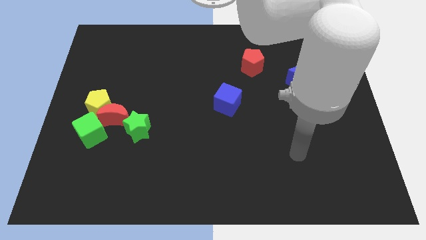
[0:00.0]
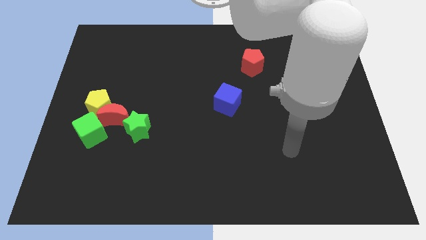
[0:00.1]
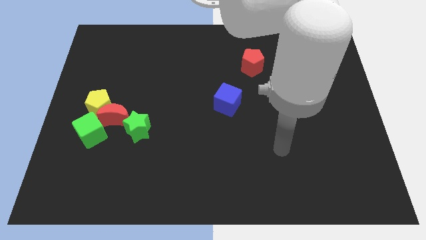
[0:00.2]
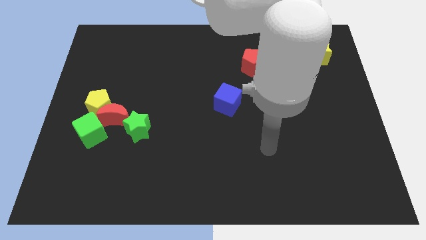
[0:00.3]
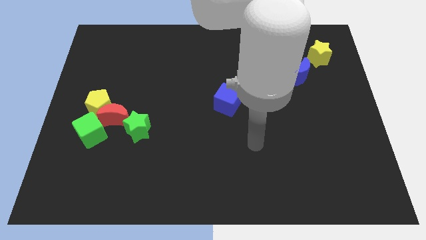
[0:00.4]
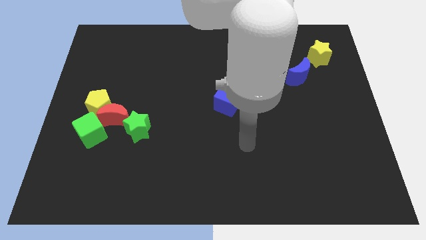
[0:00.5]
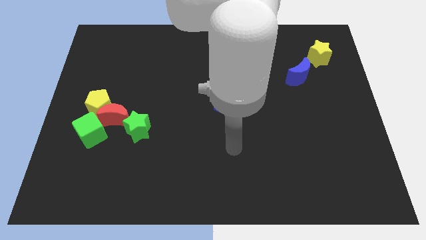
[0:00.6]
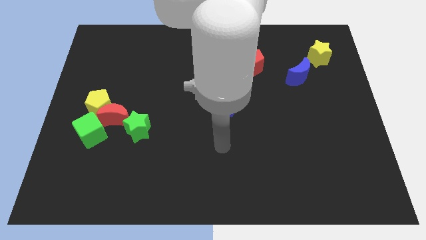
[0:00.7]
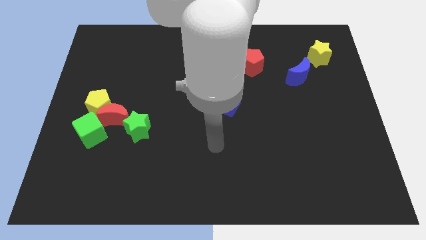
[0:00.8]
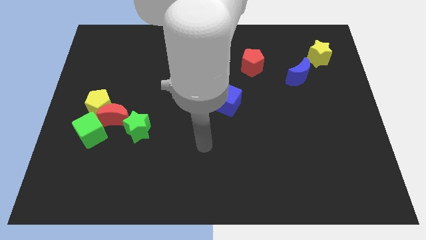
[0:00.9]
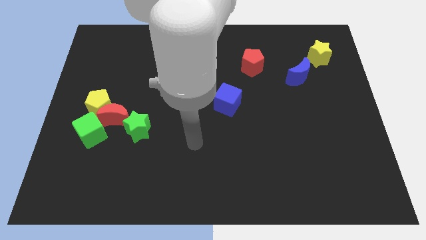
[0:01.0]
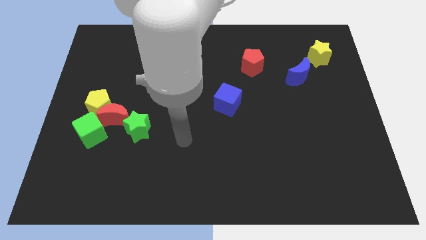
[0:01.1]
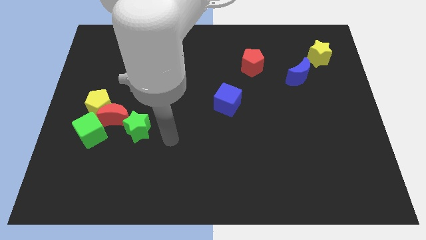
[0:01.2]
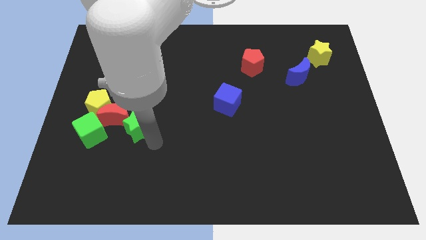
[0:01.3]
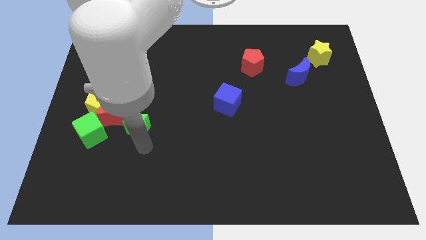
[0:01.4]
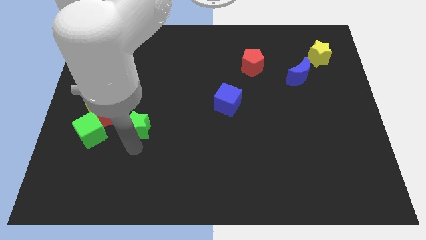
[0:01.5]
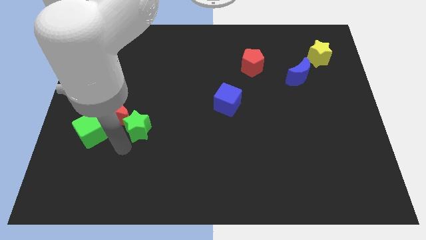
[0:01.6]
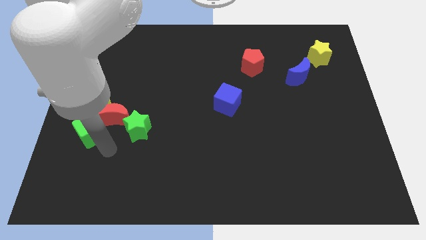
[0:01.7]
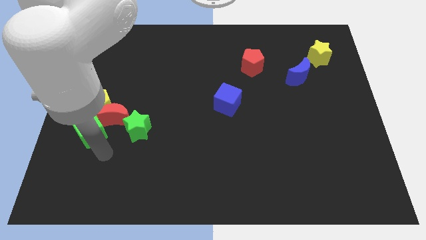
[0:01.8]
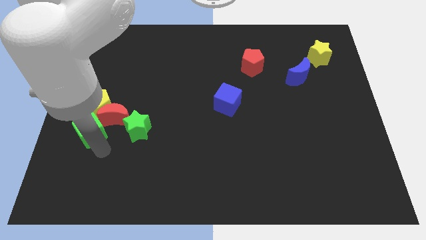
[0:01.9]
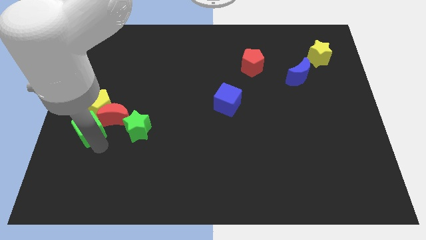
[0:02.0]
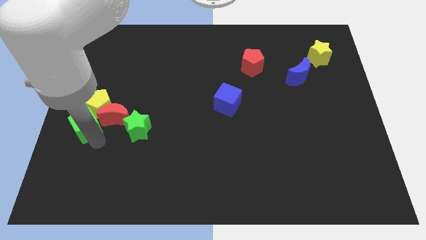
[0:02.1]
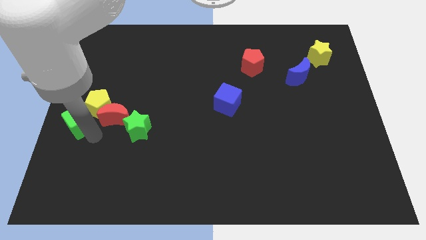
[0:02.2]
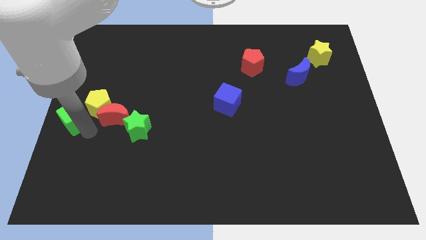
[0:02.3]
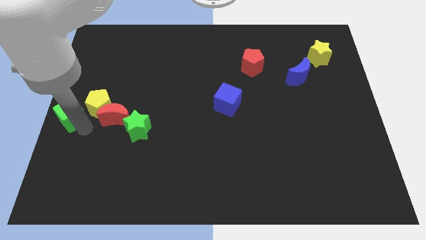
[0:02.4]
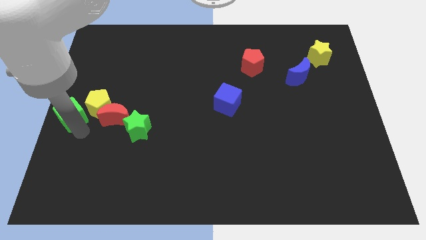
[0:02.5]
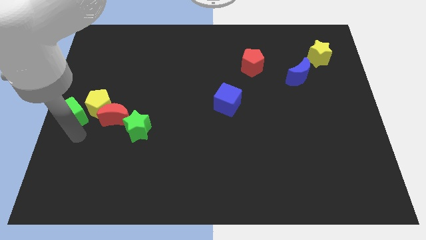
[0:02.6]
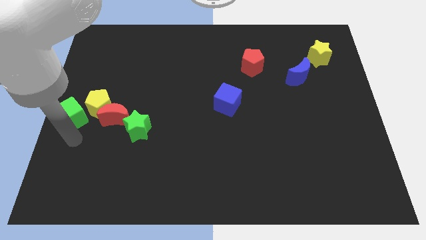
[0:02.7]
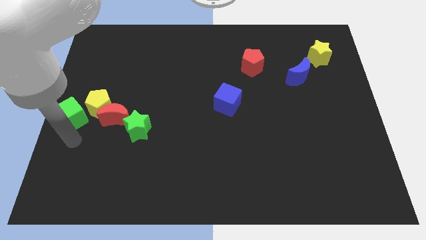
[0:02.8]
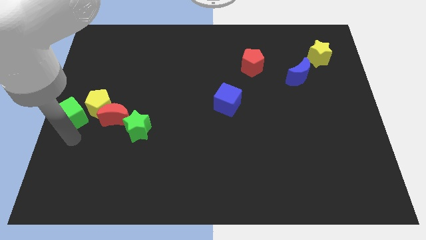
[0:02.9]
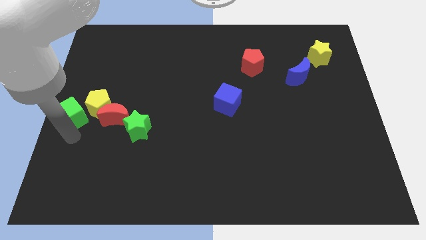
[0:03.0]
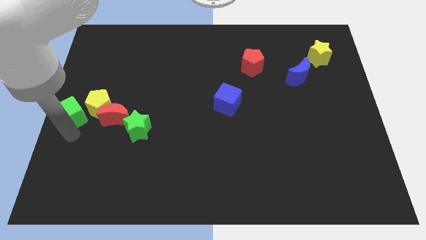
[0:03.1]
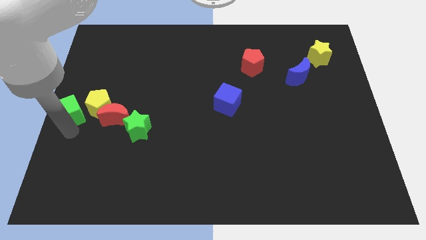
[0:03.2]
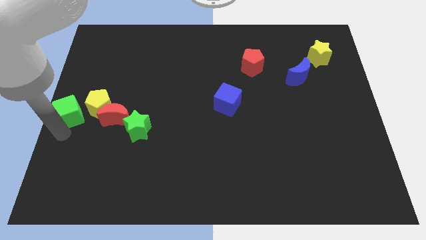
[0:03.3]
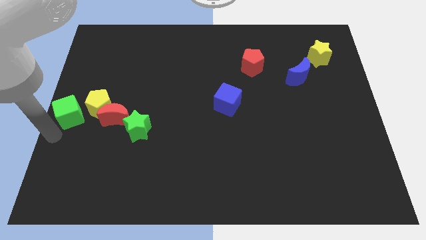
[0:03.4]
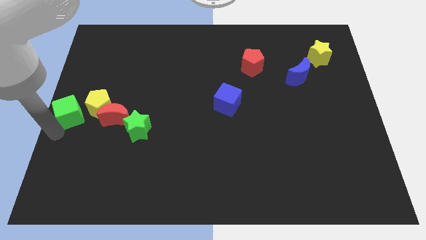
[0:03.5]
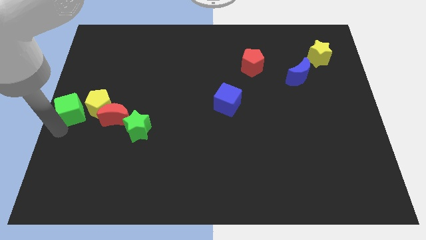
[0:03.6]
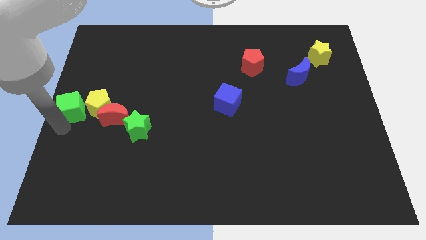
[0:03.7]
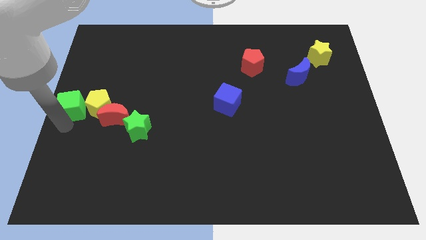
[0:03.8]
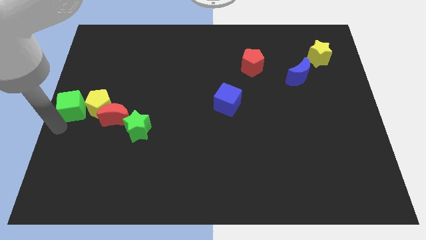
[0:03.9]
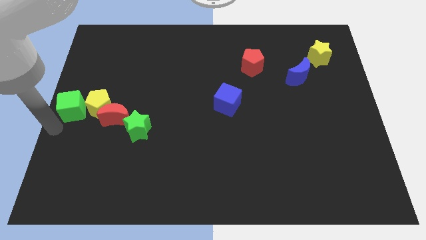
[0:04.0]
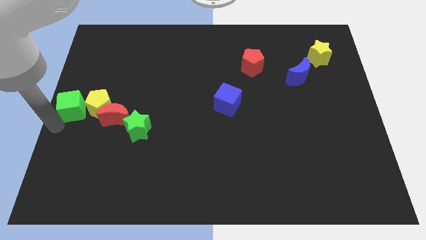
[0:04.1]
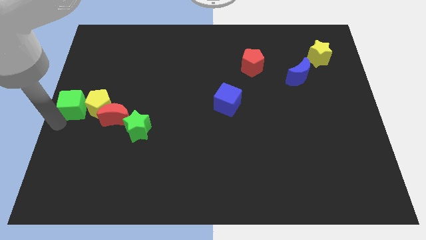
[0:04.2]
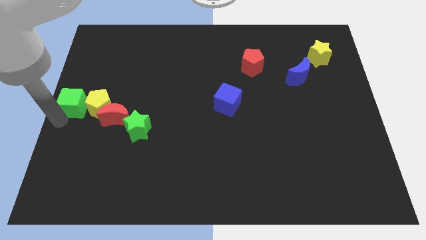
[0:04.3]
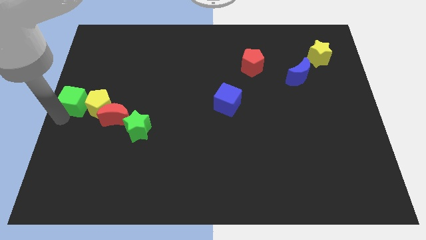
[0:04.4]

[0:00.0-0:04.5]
push the green cube a little upwards

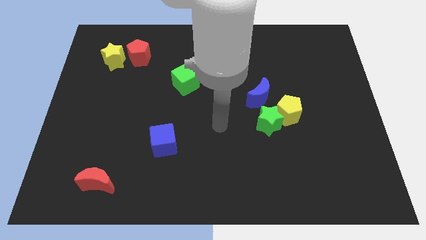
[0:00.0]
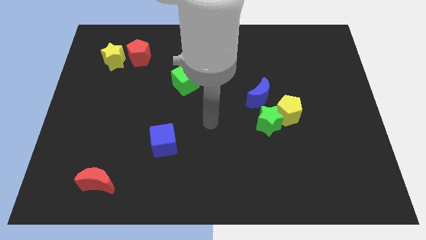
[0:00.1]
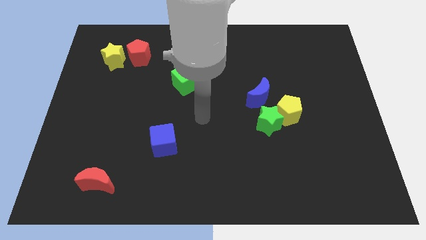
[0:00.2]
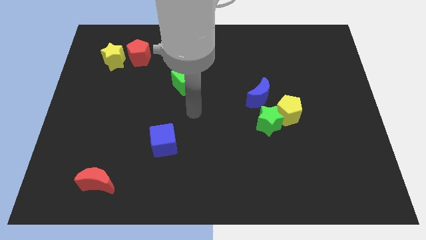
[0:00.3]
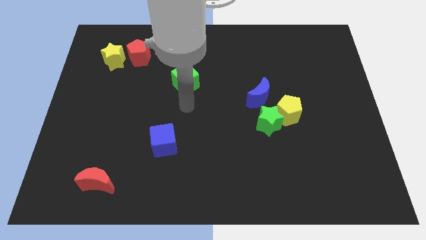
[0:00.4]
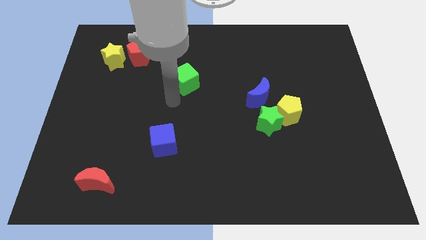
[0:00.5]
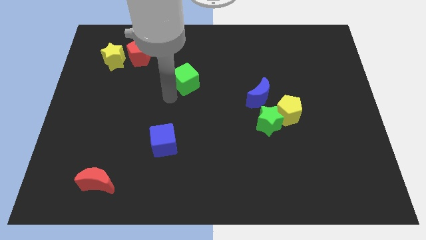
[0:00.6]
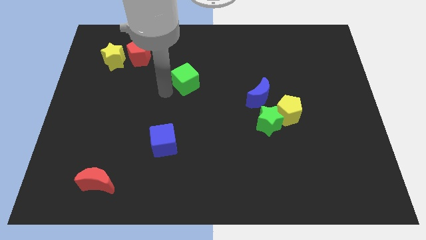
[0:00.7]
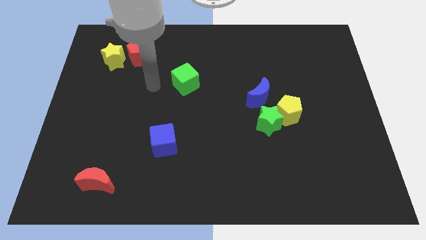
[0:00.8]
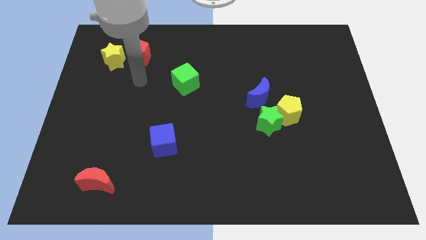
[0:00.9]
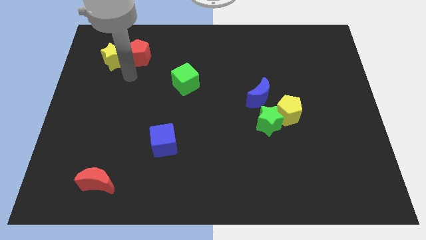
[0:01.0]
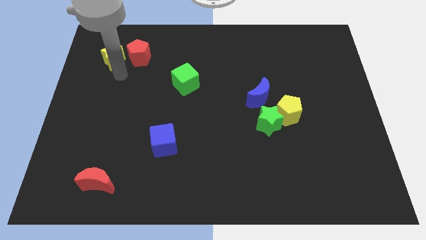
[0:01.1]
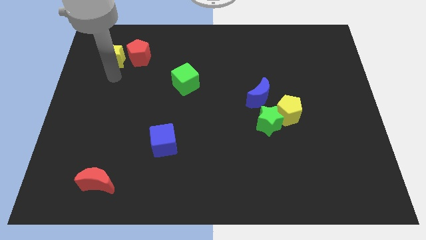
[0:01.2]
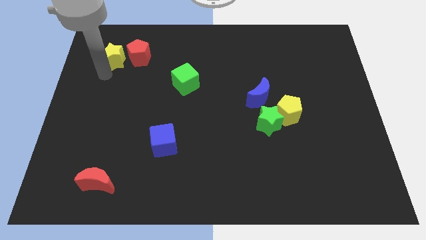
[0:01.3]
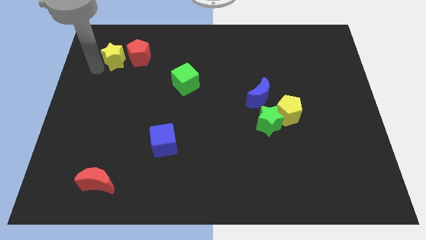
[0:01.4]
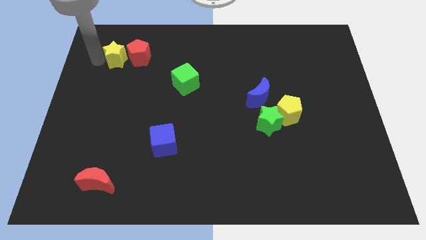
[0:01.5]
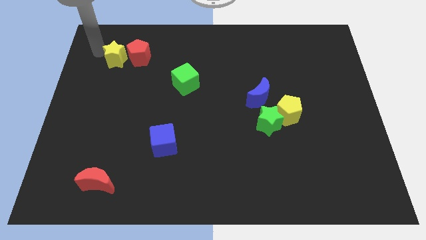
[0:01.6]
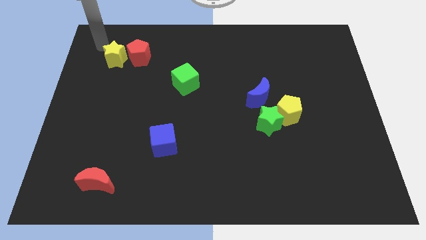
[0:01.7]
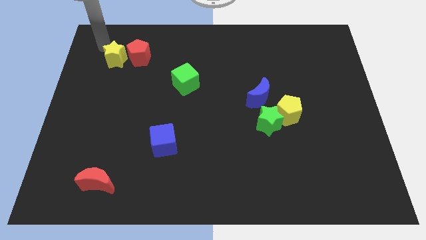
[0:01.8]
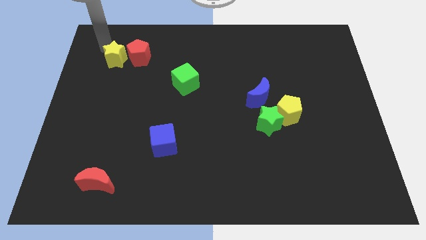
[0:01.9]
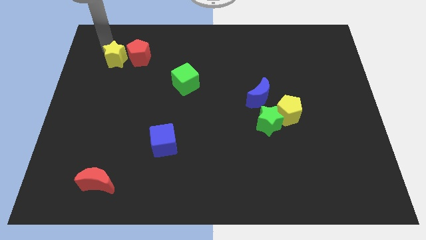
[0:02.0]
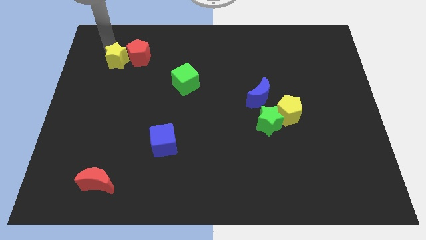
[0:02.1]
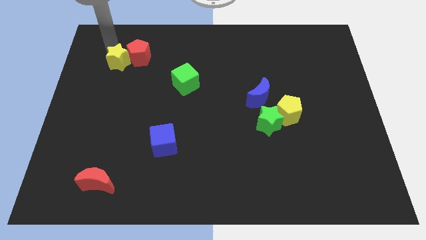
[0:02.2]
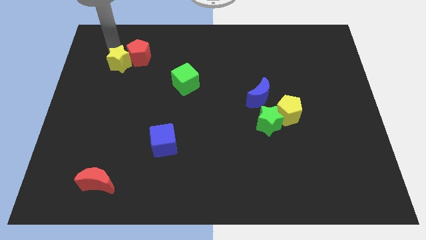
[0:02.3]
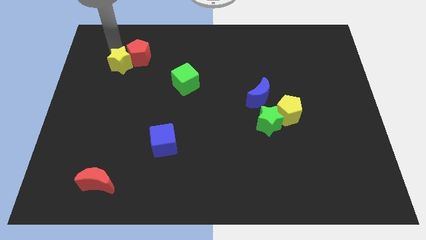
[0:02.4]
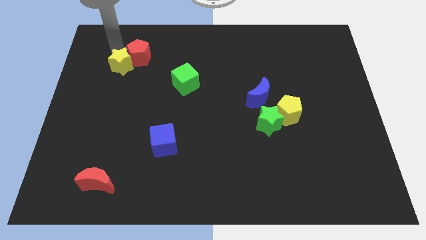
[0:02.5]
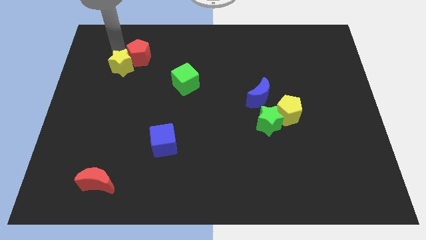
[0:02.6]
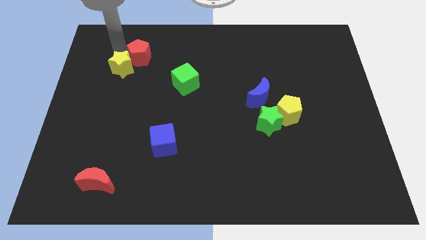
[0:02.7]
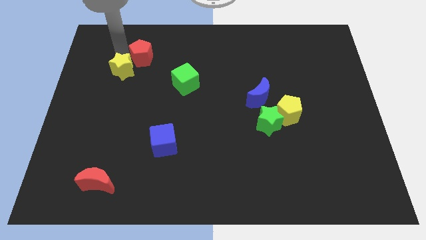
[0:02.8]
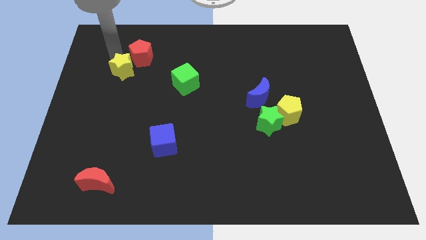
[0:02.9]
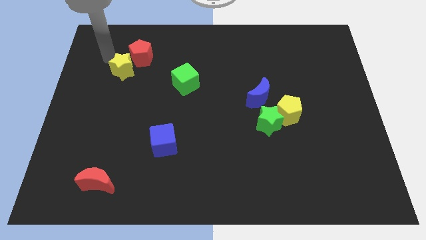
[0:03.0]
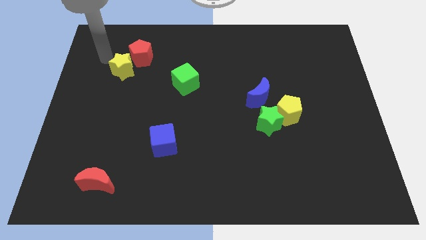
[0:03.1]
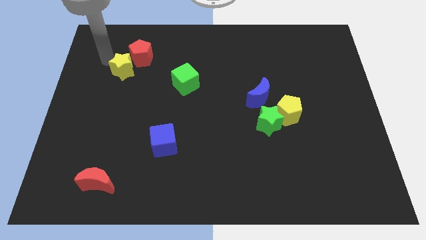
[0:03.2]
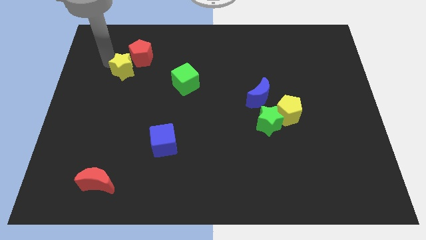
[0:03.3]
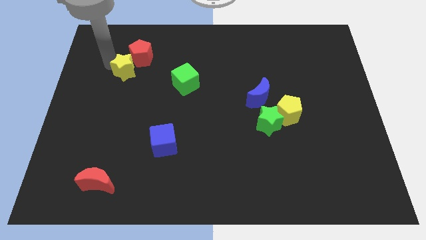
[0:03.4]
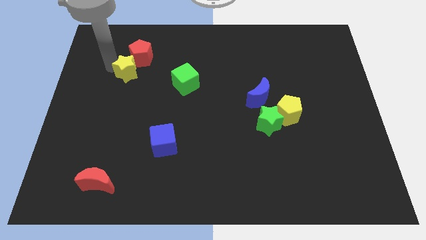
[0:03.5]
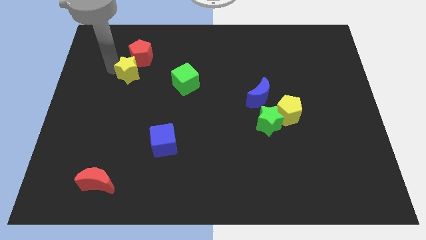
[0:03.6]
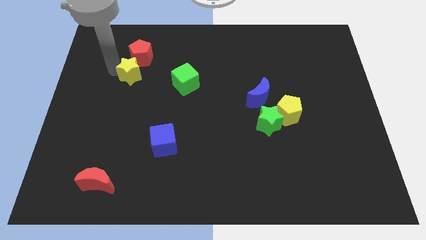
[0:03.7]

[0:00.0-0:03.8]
push the yellow star a little bit downwards and right
